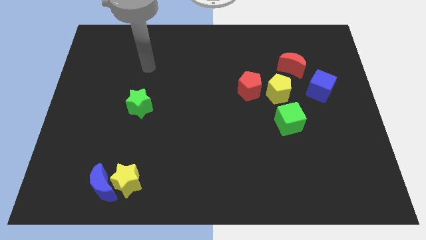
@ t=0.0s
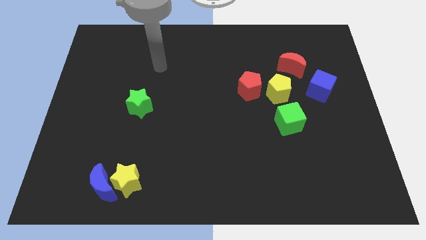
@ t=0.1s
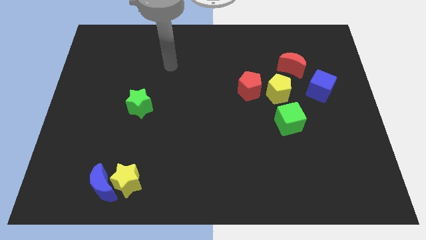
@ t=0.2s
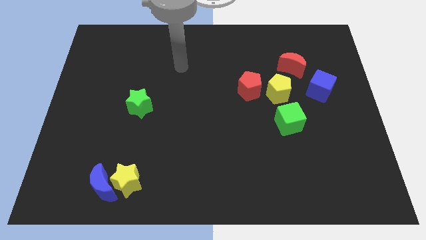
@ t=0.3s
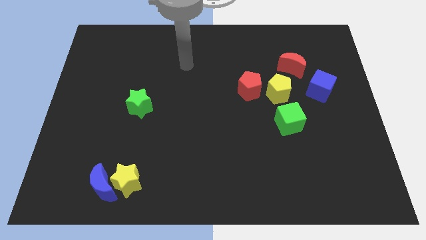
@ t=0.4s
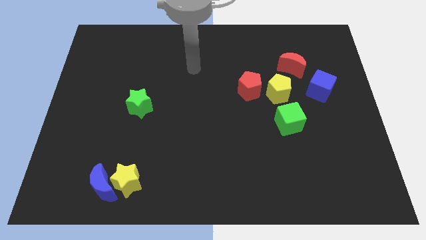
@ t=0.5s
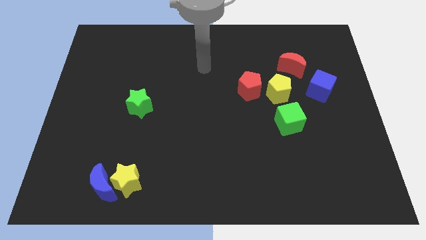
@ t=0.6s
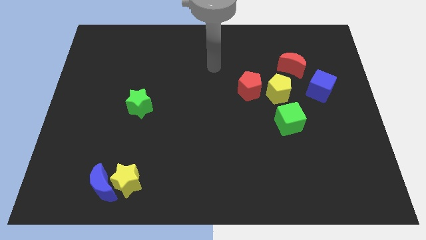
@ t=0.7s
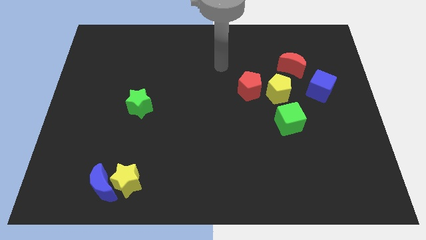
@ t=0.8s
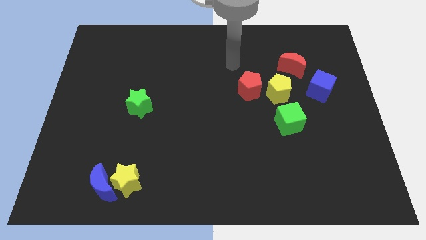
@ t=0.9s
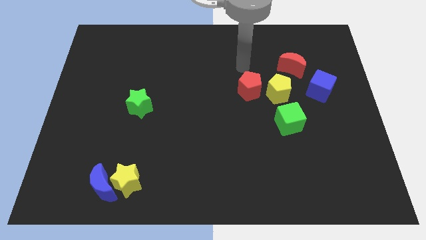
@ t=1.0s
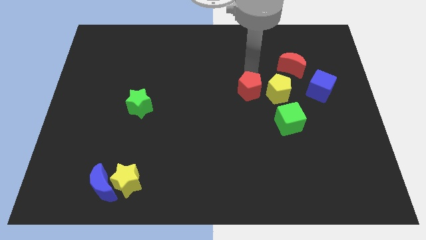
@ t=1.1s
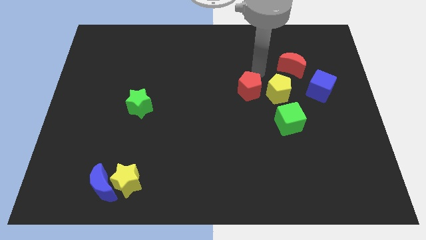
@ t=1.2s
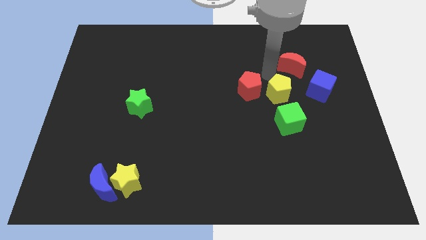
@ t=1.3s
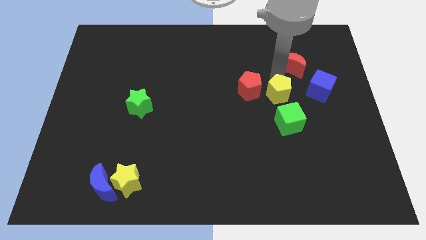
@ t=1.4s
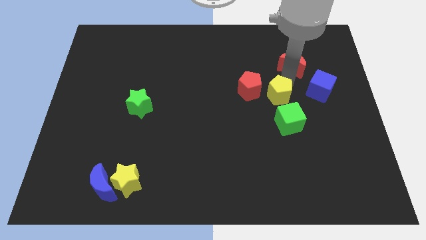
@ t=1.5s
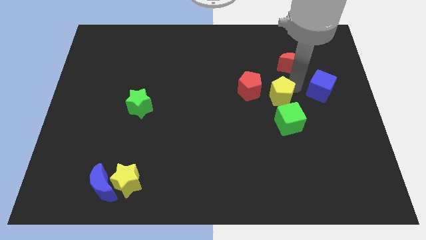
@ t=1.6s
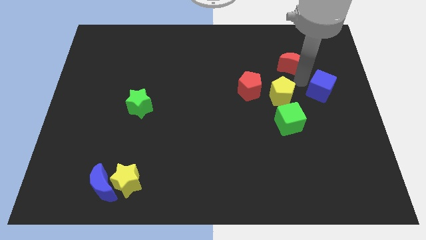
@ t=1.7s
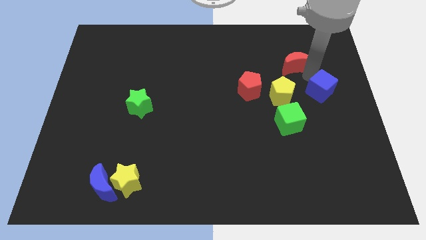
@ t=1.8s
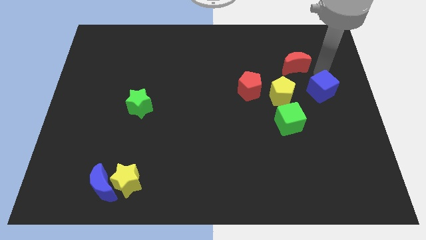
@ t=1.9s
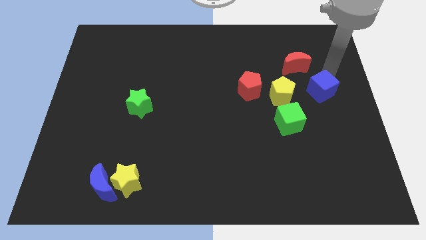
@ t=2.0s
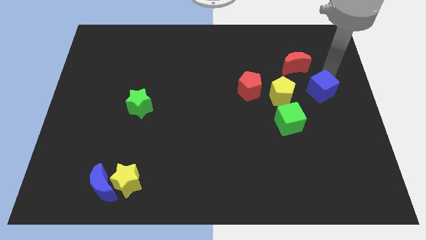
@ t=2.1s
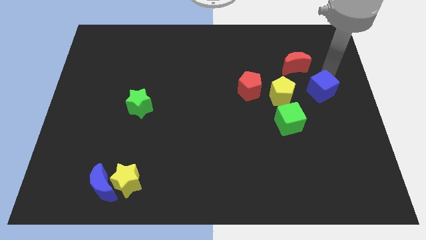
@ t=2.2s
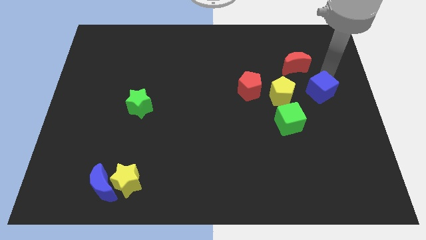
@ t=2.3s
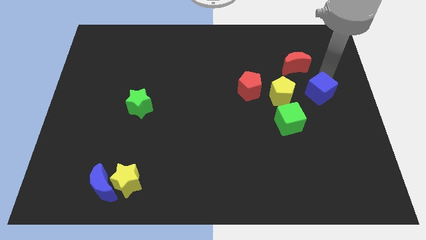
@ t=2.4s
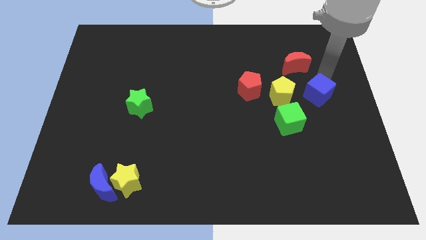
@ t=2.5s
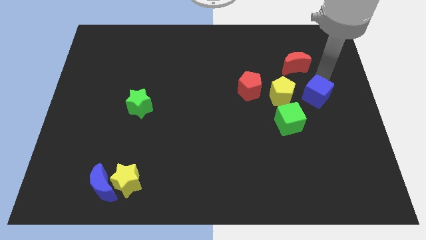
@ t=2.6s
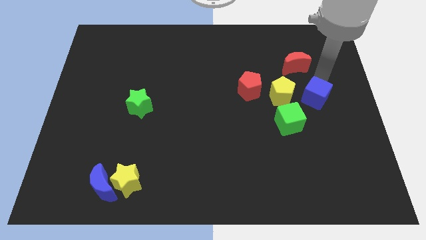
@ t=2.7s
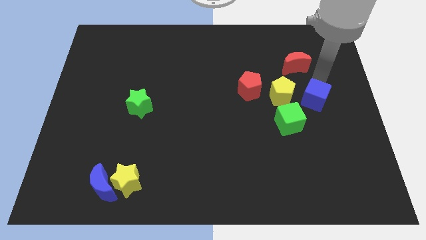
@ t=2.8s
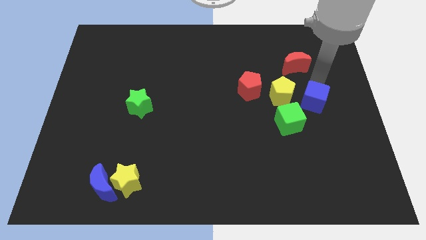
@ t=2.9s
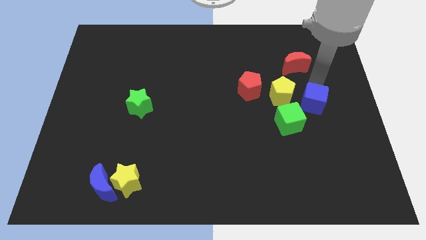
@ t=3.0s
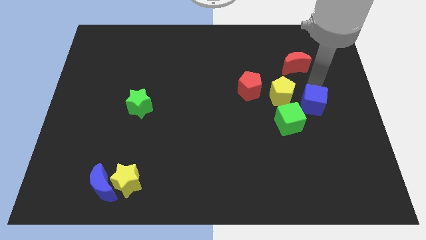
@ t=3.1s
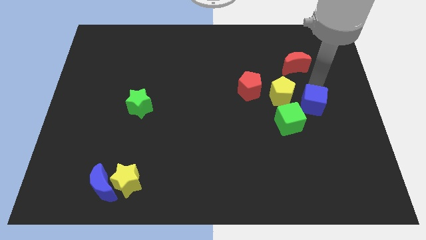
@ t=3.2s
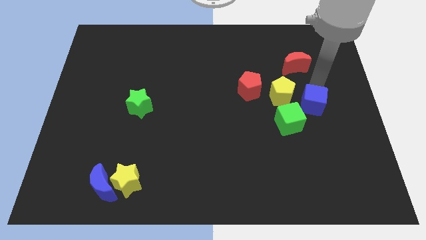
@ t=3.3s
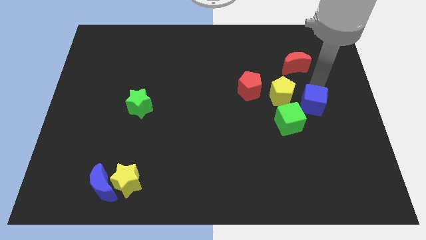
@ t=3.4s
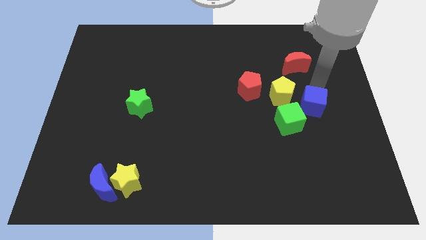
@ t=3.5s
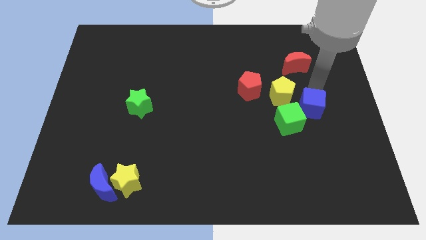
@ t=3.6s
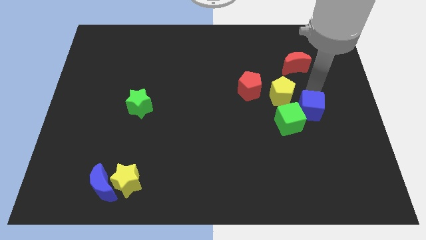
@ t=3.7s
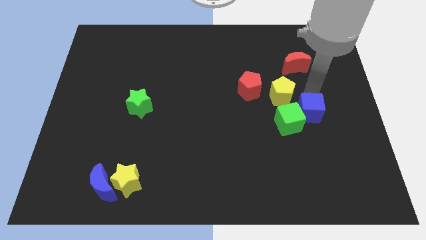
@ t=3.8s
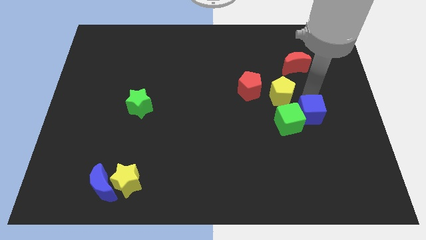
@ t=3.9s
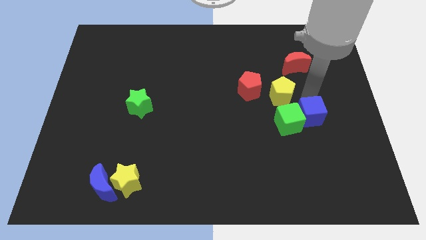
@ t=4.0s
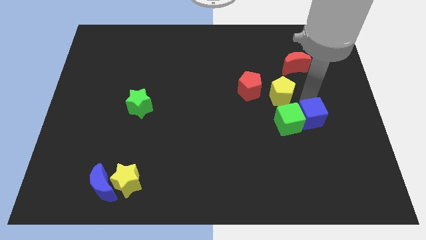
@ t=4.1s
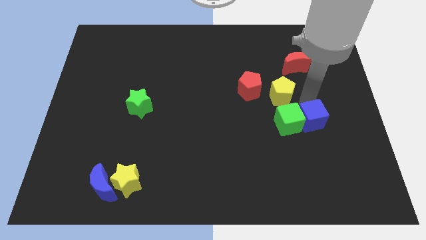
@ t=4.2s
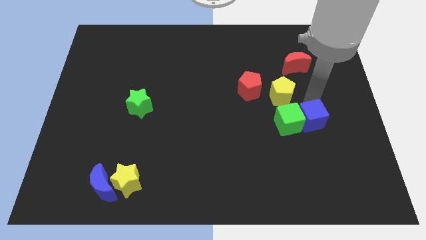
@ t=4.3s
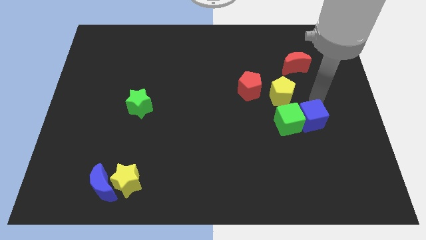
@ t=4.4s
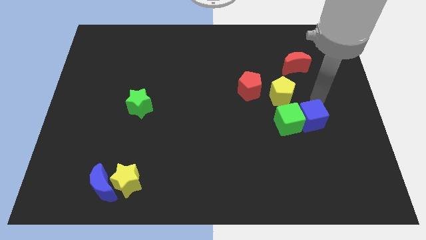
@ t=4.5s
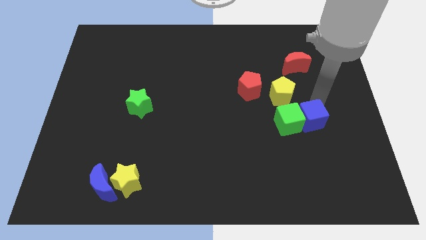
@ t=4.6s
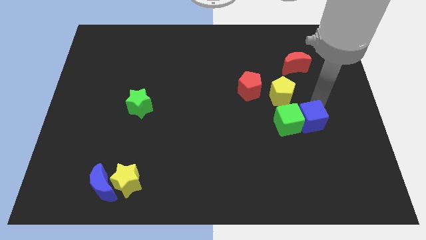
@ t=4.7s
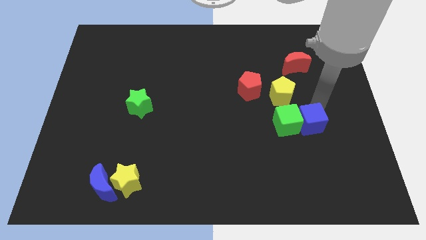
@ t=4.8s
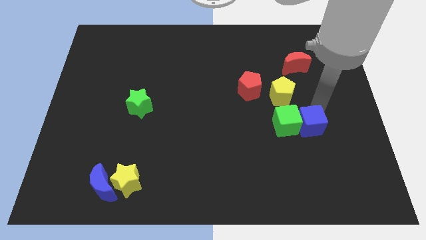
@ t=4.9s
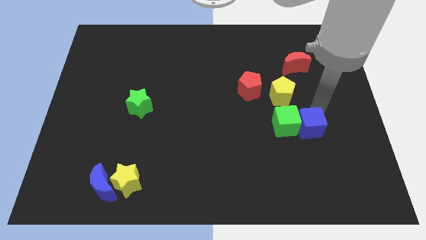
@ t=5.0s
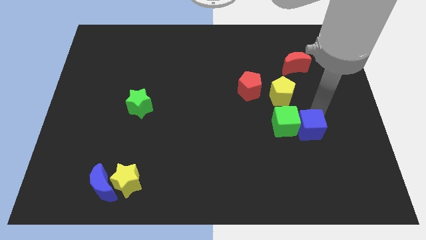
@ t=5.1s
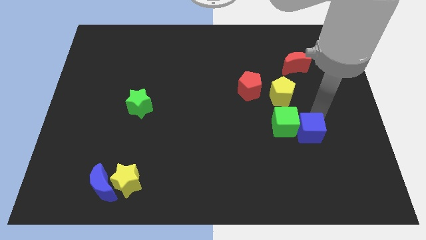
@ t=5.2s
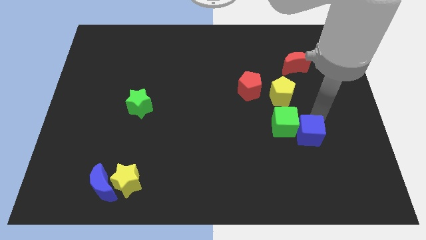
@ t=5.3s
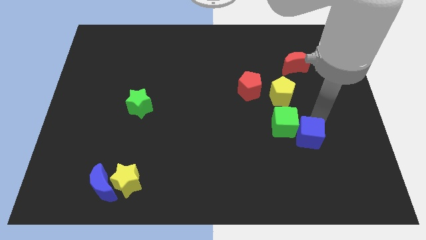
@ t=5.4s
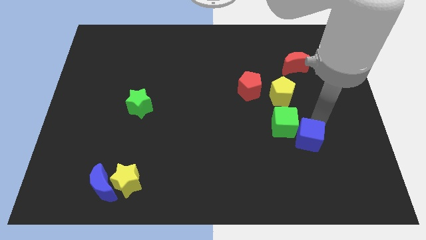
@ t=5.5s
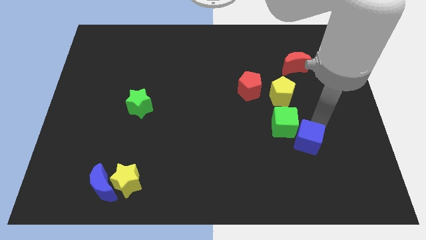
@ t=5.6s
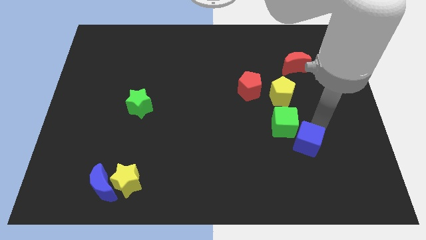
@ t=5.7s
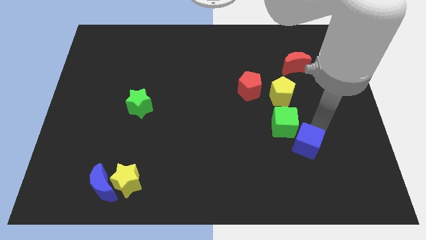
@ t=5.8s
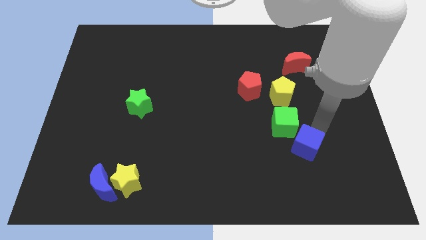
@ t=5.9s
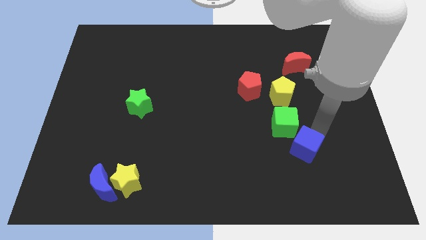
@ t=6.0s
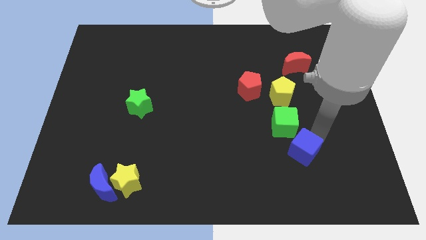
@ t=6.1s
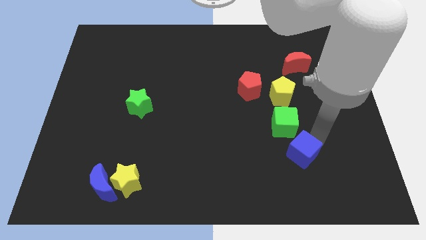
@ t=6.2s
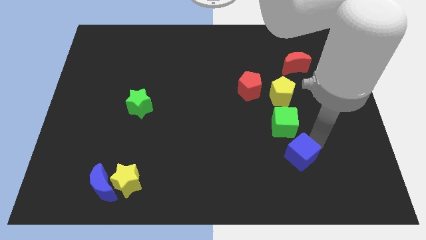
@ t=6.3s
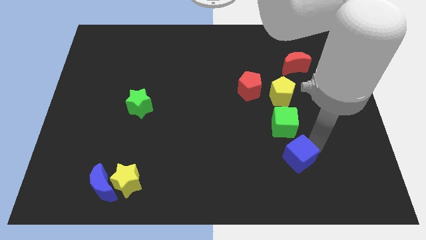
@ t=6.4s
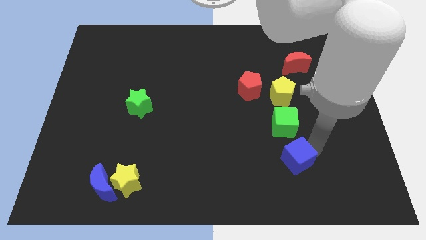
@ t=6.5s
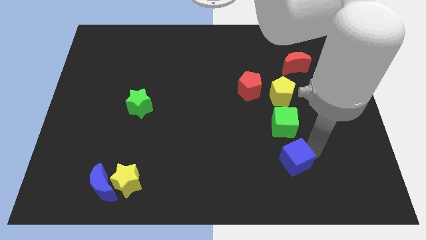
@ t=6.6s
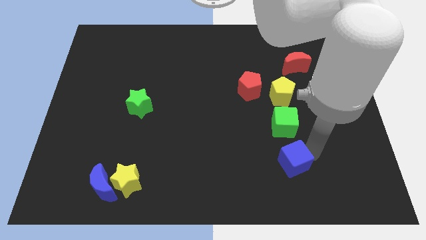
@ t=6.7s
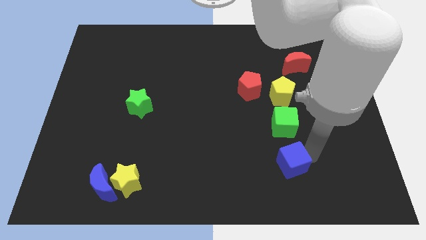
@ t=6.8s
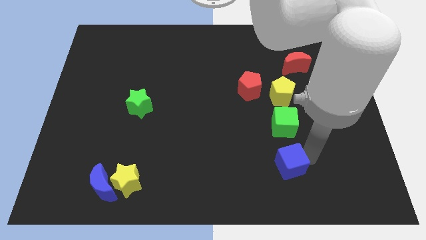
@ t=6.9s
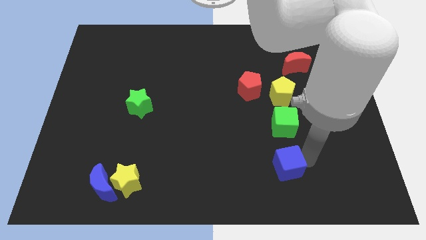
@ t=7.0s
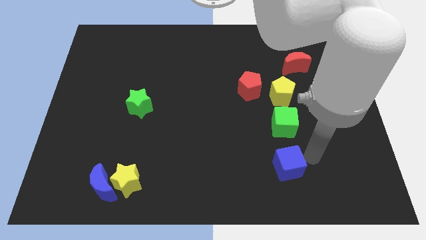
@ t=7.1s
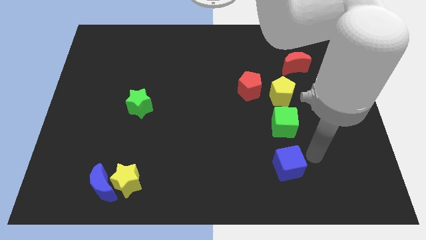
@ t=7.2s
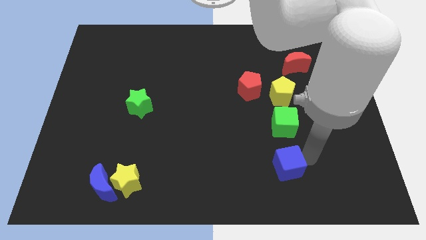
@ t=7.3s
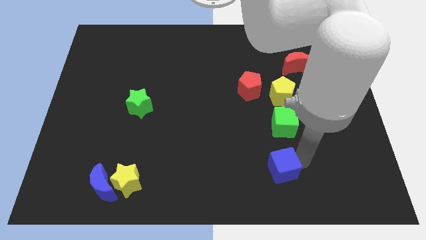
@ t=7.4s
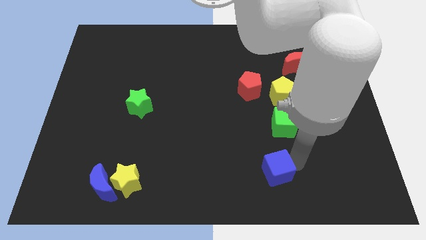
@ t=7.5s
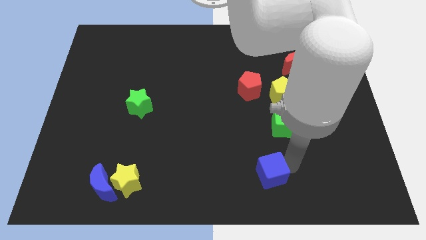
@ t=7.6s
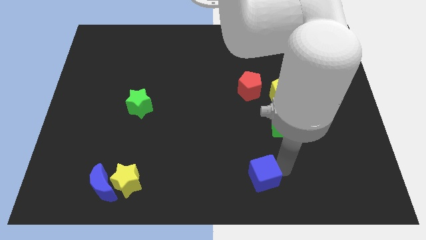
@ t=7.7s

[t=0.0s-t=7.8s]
put the blue cube to the bottom

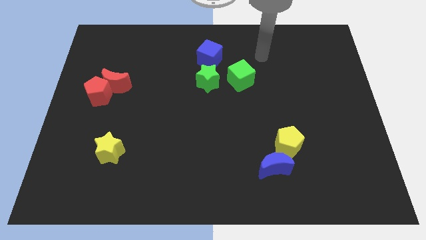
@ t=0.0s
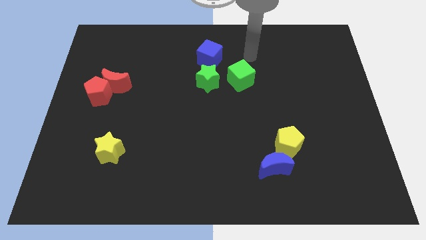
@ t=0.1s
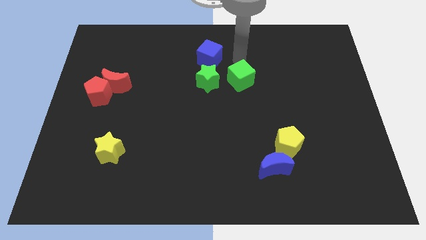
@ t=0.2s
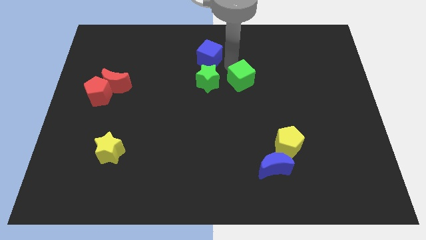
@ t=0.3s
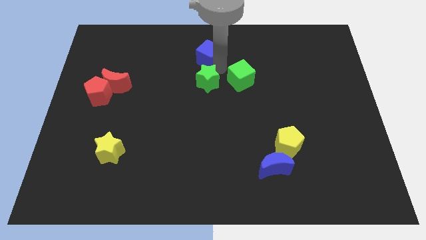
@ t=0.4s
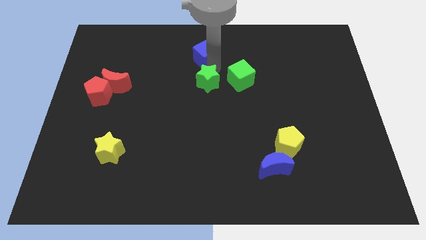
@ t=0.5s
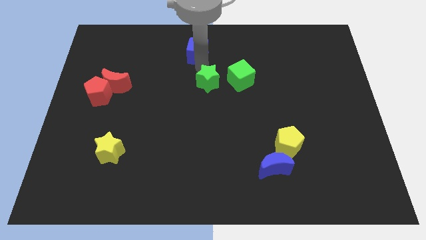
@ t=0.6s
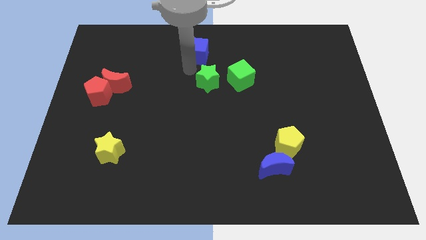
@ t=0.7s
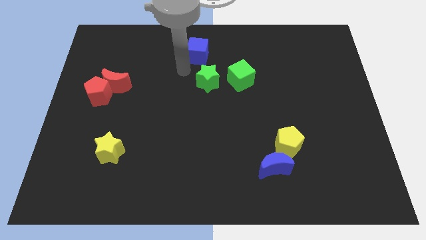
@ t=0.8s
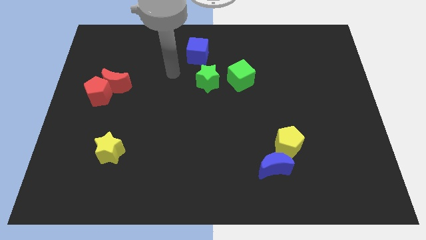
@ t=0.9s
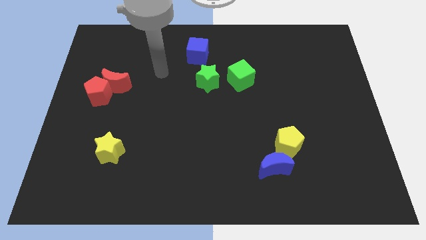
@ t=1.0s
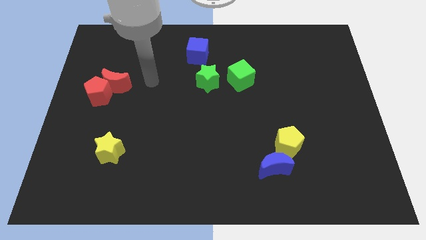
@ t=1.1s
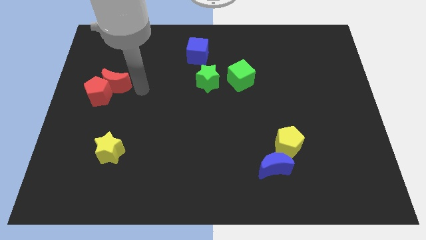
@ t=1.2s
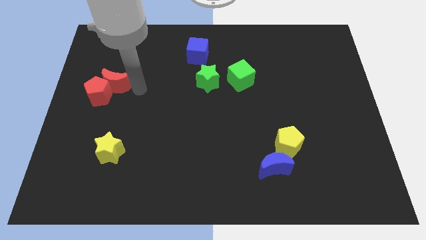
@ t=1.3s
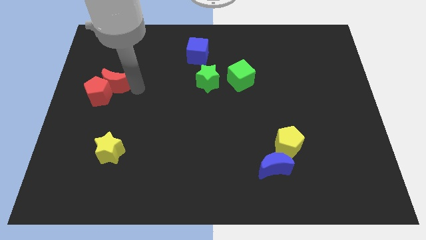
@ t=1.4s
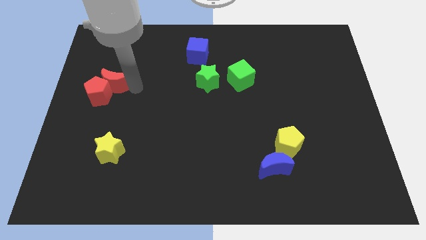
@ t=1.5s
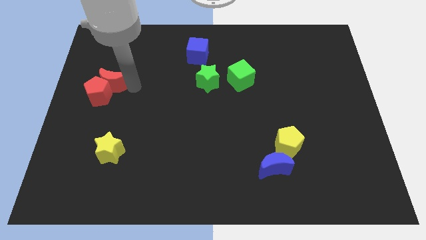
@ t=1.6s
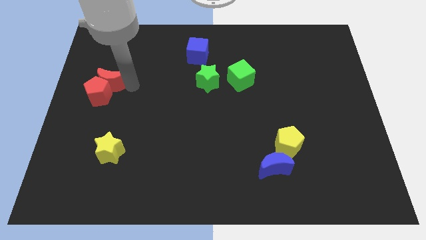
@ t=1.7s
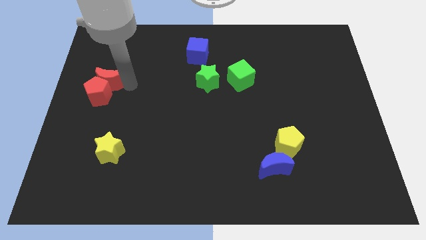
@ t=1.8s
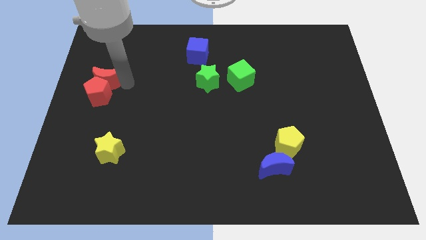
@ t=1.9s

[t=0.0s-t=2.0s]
move the red moon to the left side
